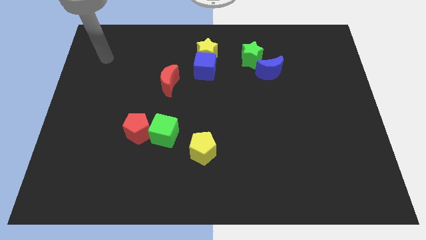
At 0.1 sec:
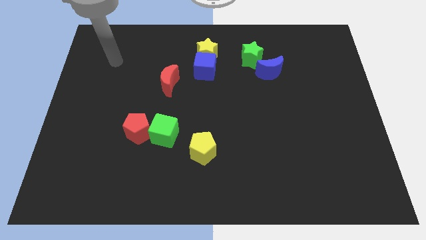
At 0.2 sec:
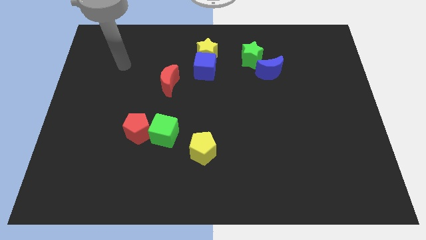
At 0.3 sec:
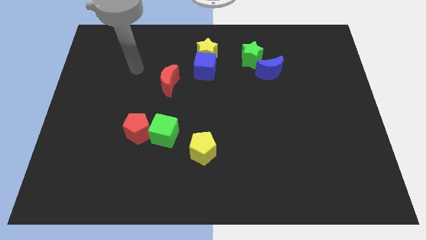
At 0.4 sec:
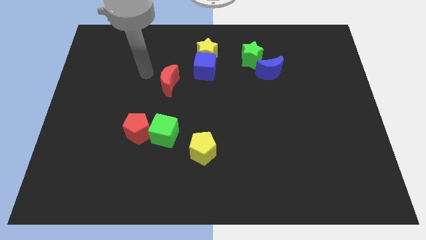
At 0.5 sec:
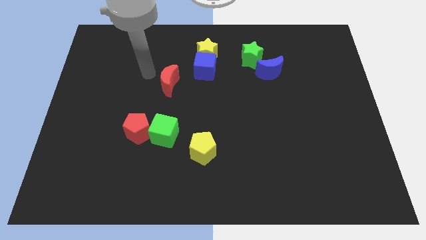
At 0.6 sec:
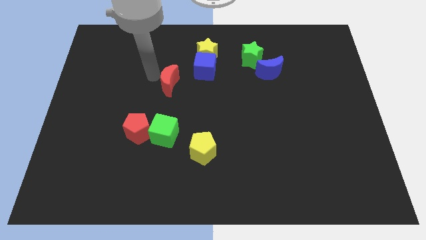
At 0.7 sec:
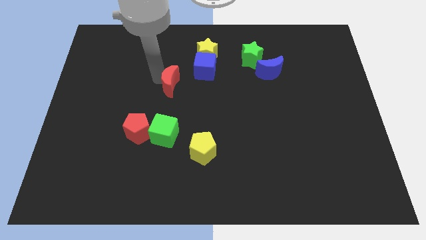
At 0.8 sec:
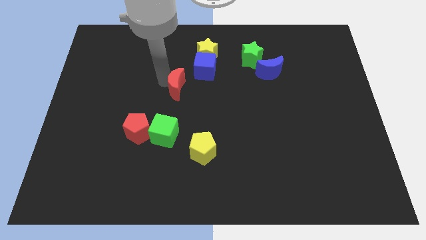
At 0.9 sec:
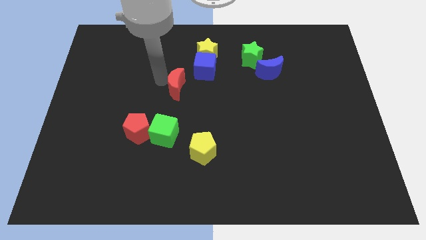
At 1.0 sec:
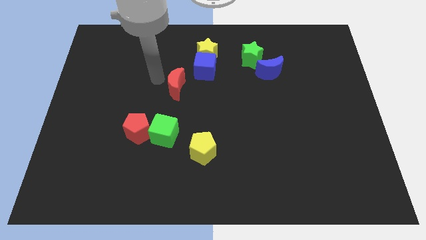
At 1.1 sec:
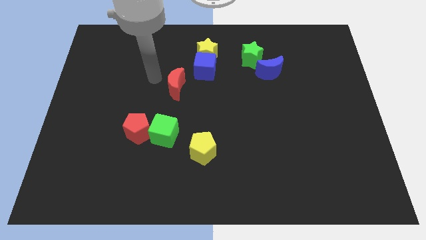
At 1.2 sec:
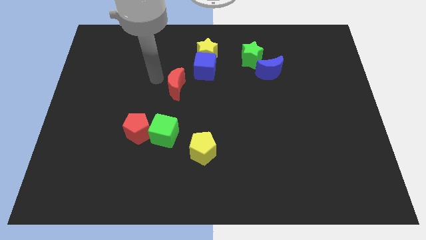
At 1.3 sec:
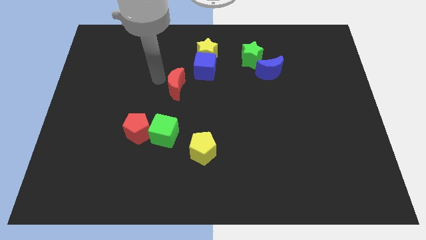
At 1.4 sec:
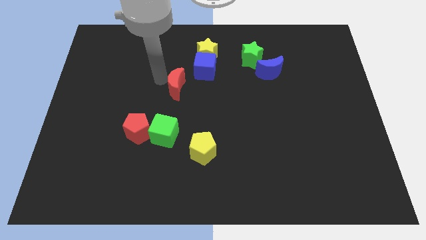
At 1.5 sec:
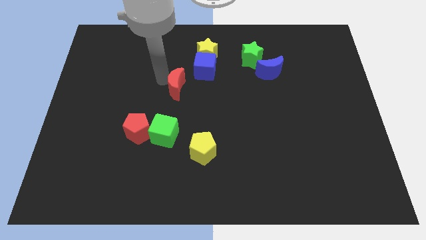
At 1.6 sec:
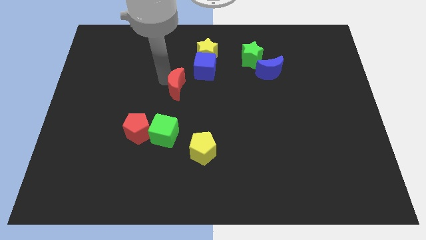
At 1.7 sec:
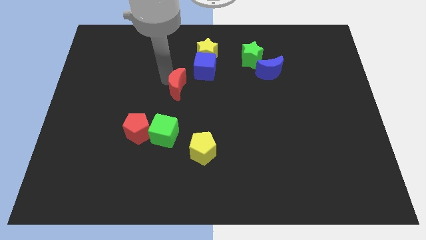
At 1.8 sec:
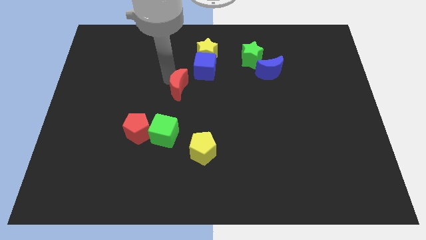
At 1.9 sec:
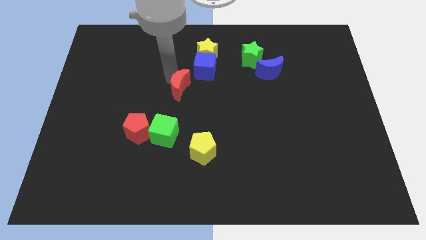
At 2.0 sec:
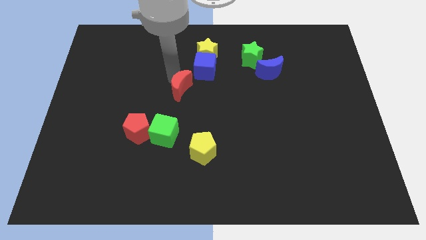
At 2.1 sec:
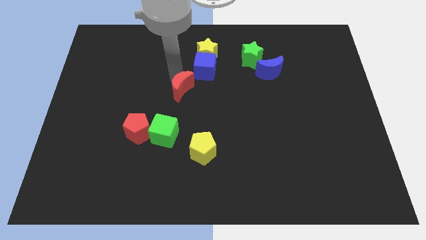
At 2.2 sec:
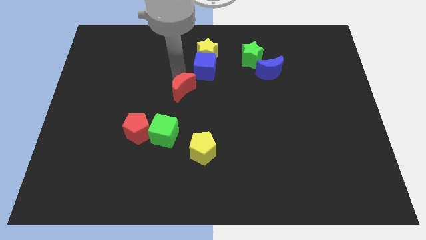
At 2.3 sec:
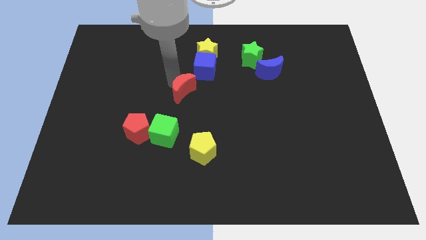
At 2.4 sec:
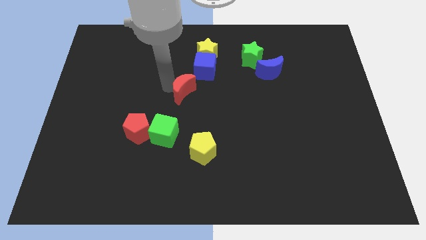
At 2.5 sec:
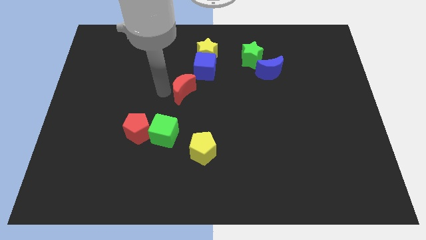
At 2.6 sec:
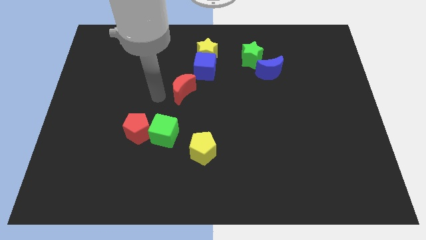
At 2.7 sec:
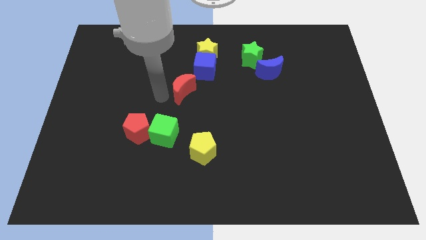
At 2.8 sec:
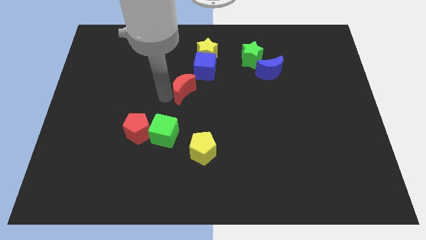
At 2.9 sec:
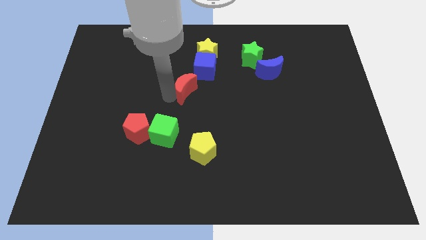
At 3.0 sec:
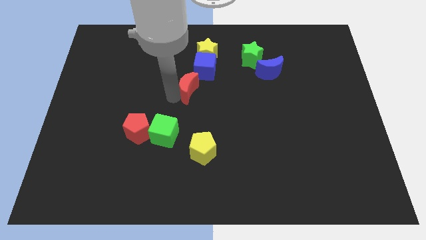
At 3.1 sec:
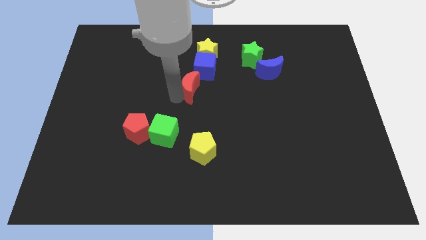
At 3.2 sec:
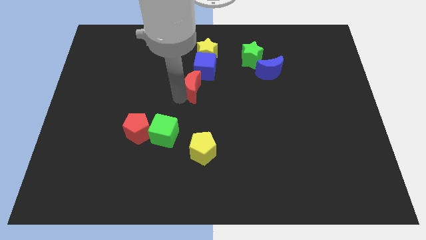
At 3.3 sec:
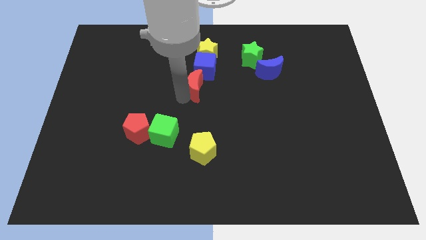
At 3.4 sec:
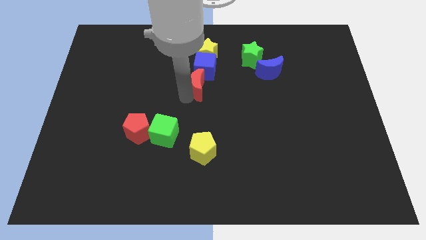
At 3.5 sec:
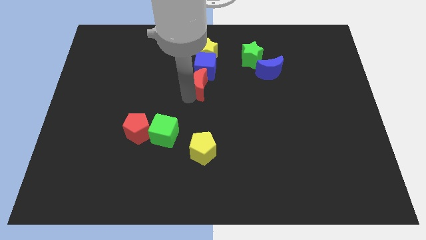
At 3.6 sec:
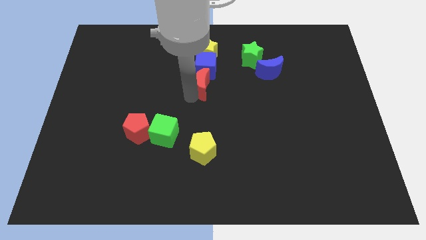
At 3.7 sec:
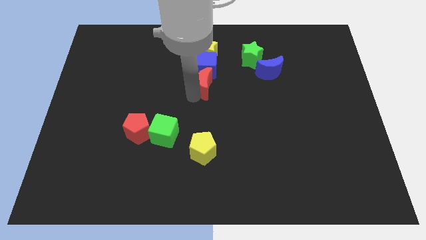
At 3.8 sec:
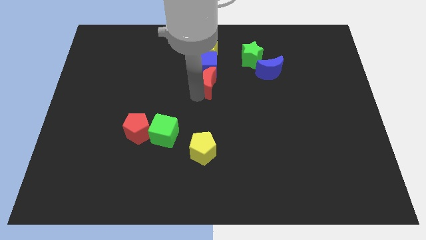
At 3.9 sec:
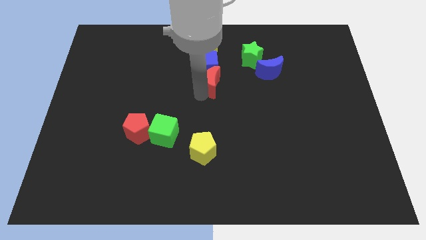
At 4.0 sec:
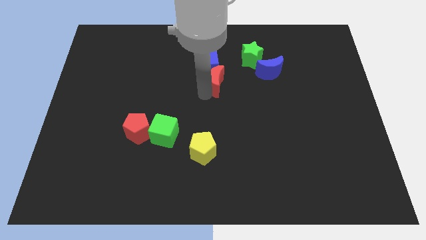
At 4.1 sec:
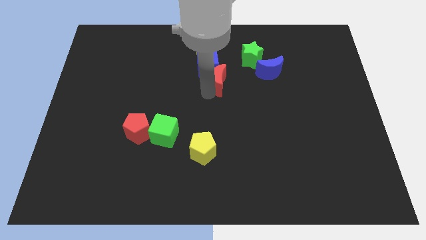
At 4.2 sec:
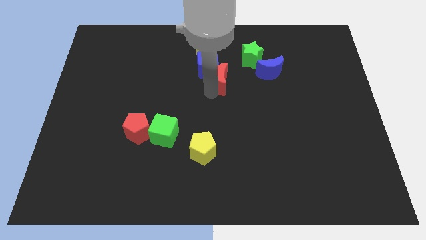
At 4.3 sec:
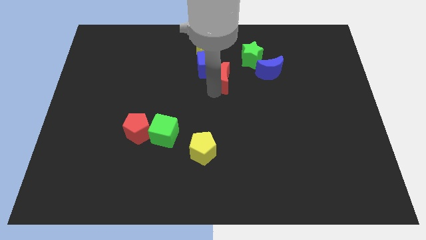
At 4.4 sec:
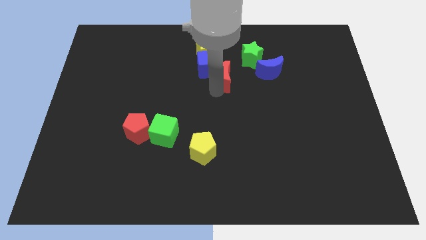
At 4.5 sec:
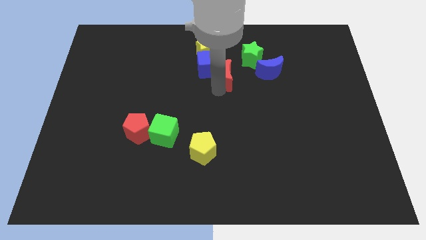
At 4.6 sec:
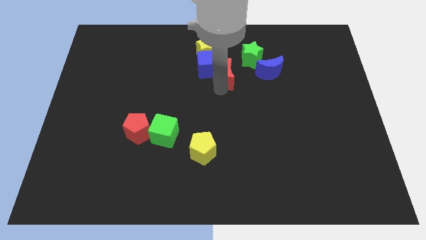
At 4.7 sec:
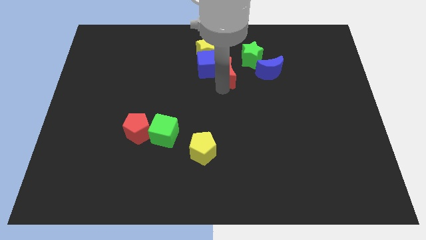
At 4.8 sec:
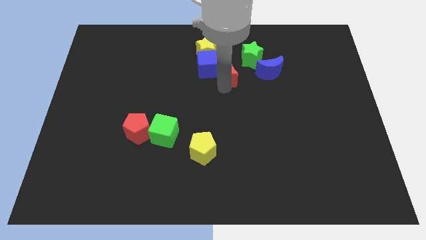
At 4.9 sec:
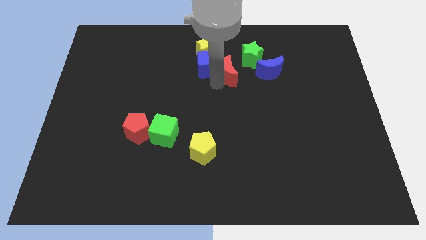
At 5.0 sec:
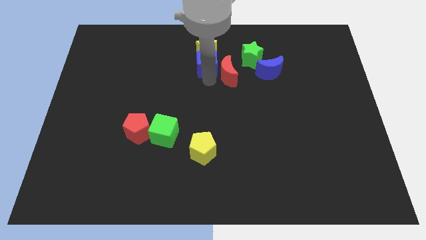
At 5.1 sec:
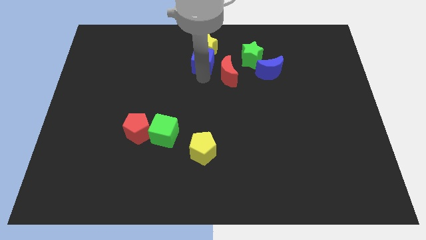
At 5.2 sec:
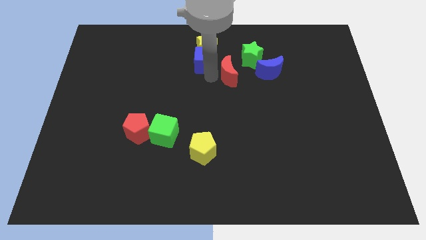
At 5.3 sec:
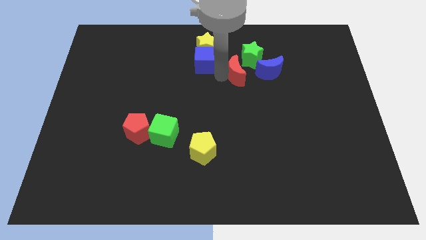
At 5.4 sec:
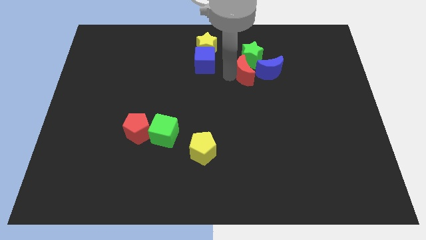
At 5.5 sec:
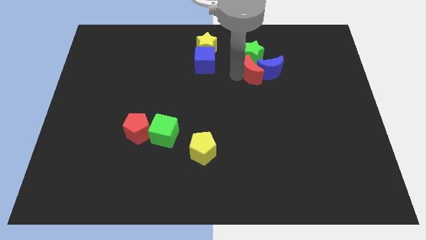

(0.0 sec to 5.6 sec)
put the red moon close to the blue moon

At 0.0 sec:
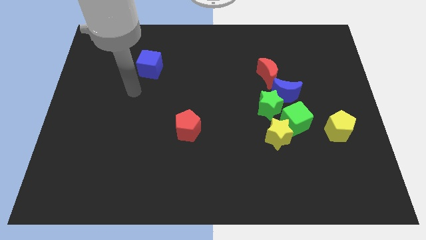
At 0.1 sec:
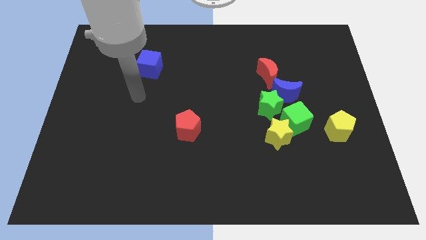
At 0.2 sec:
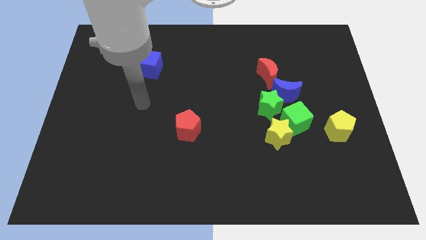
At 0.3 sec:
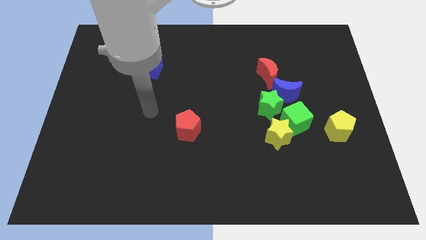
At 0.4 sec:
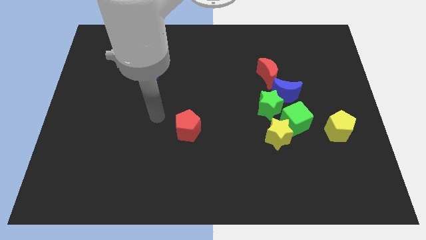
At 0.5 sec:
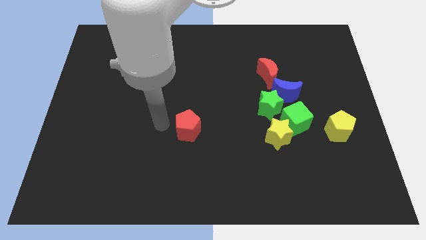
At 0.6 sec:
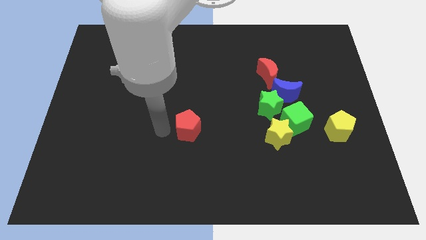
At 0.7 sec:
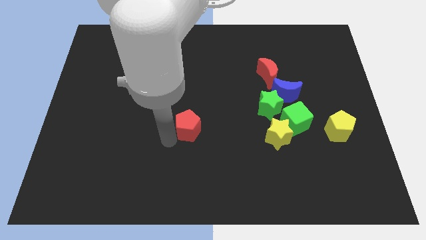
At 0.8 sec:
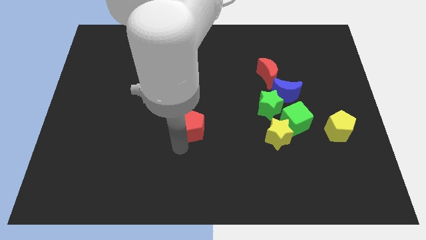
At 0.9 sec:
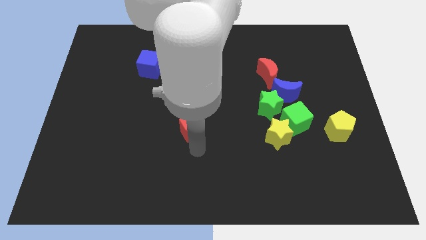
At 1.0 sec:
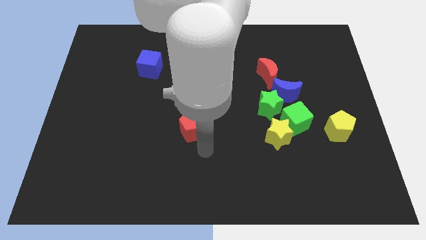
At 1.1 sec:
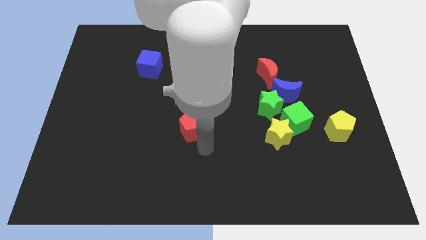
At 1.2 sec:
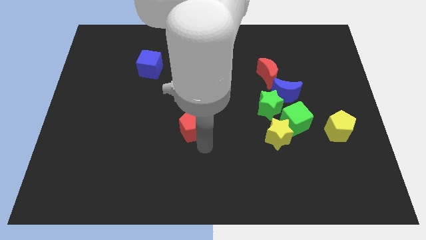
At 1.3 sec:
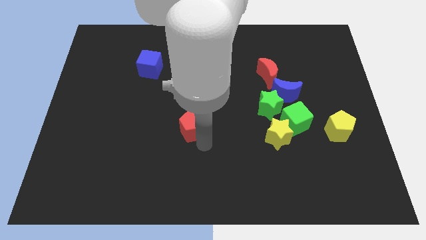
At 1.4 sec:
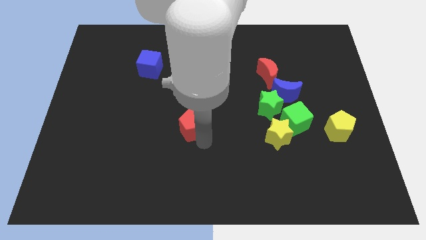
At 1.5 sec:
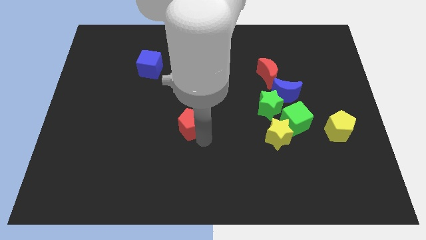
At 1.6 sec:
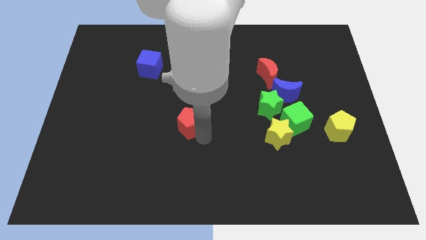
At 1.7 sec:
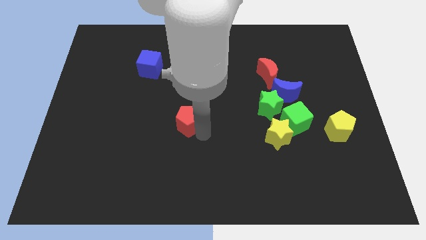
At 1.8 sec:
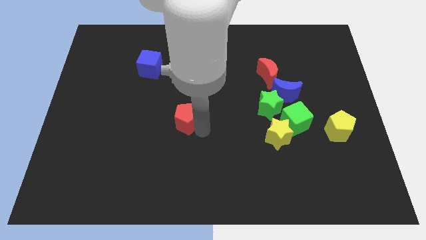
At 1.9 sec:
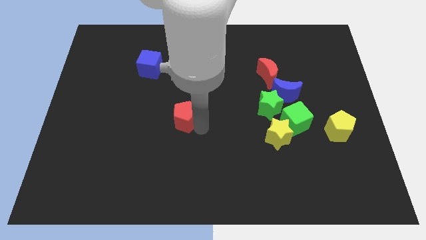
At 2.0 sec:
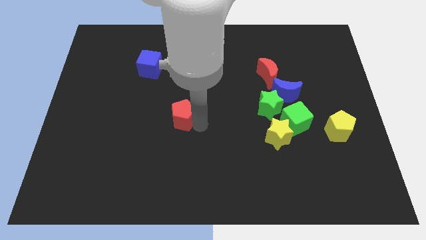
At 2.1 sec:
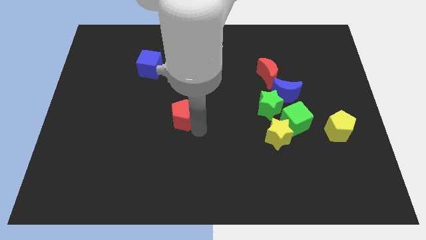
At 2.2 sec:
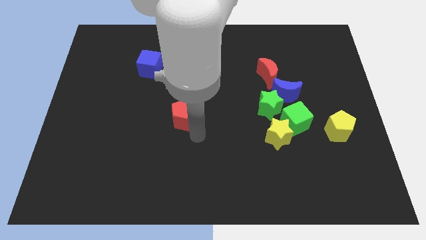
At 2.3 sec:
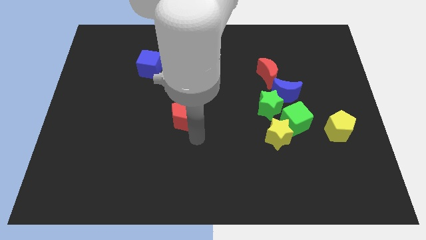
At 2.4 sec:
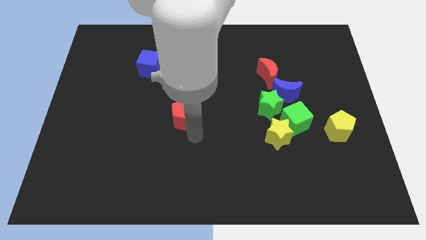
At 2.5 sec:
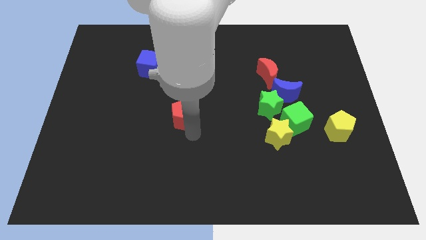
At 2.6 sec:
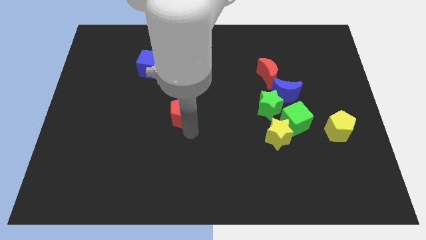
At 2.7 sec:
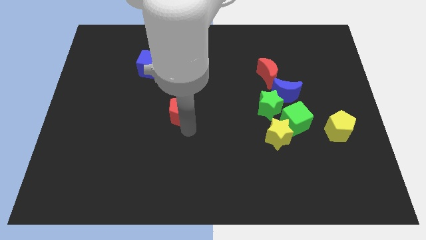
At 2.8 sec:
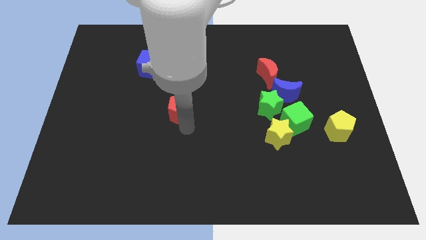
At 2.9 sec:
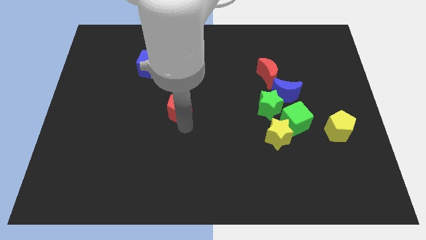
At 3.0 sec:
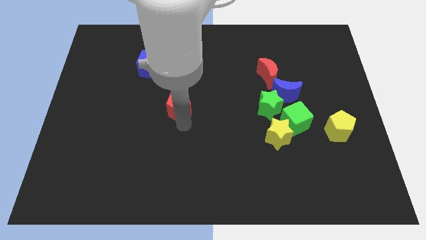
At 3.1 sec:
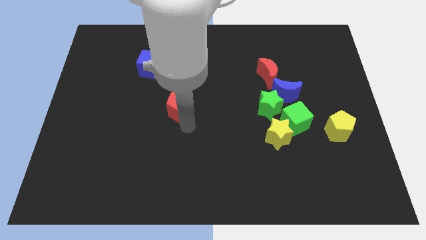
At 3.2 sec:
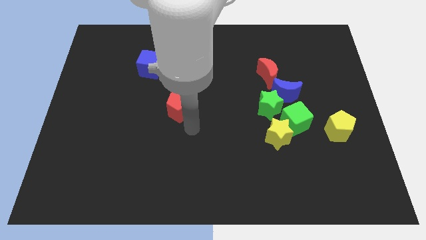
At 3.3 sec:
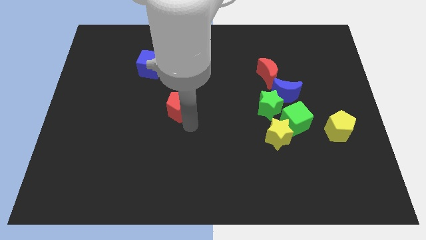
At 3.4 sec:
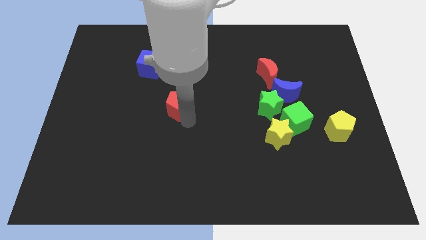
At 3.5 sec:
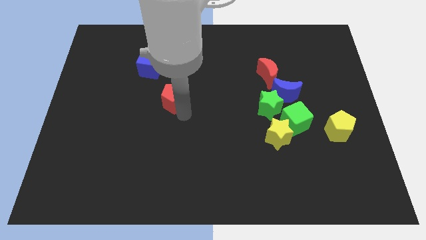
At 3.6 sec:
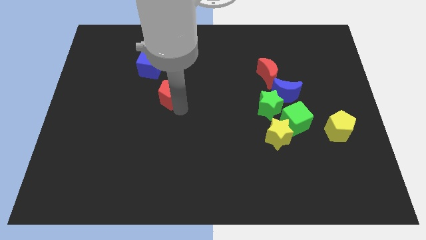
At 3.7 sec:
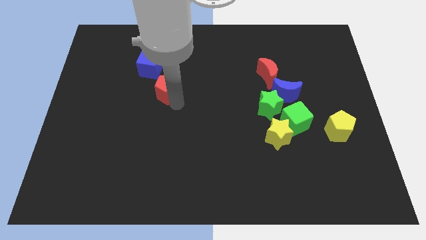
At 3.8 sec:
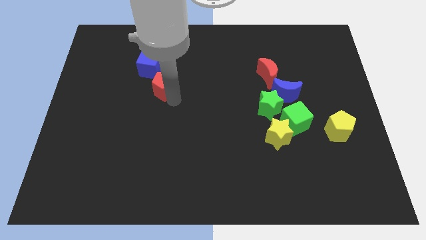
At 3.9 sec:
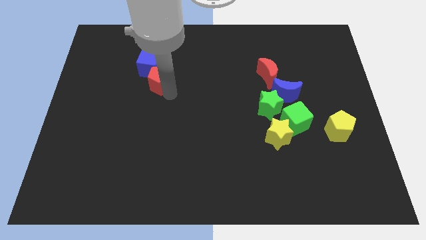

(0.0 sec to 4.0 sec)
put the red pentagon next to the blue cube
